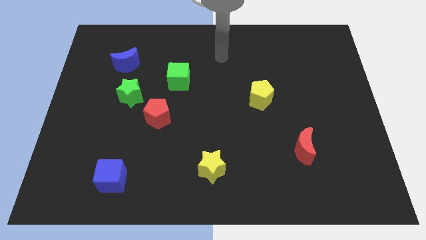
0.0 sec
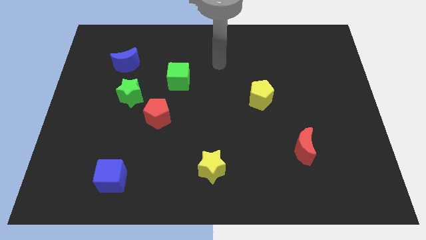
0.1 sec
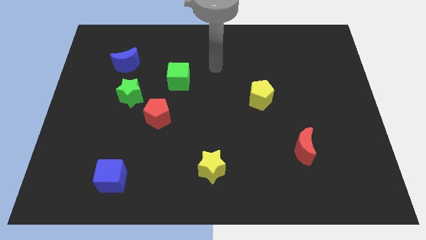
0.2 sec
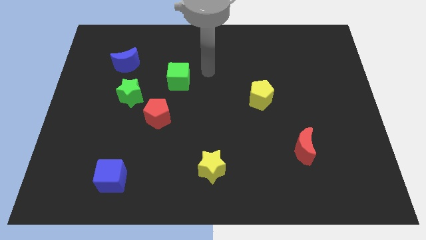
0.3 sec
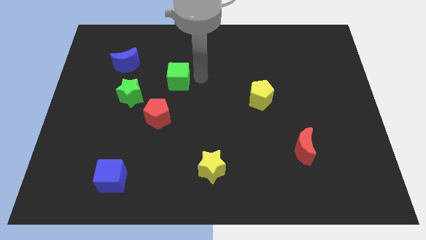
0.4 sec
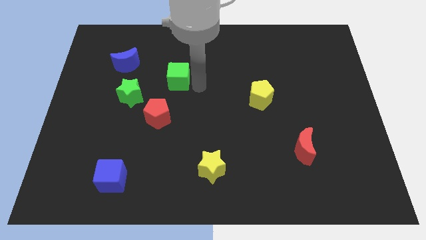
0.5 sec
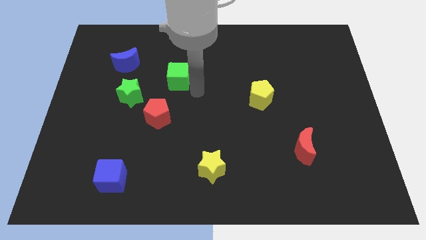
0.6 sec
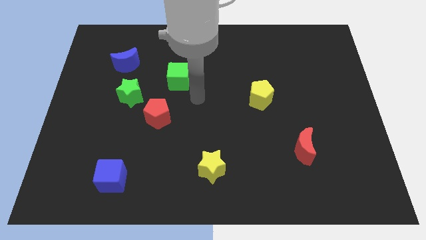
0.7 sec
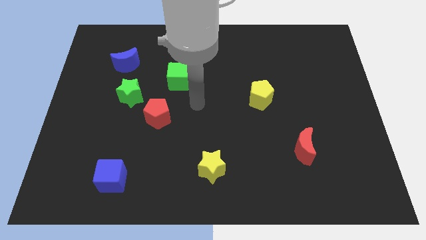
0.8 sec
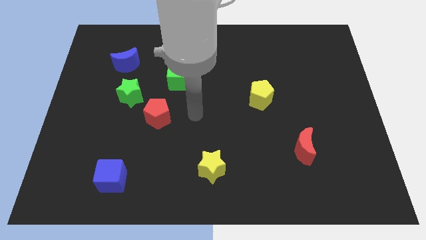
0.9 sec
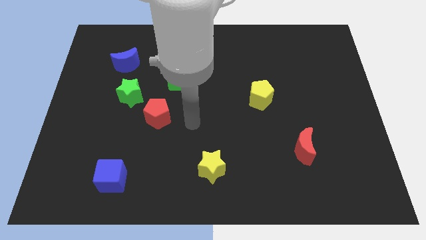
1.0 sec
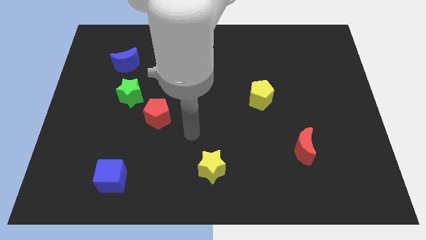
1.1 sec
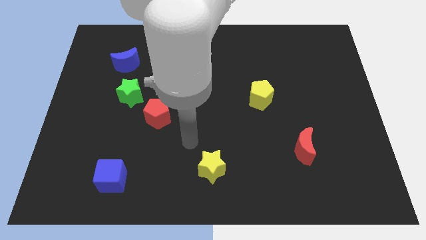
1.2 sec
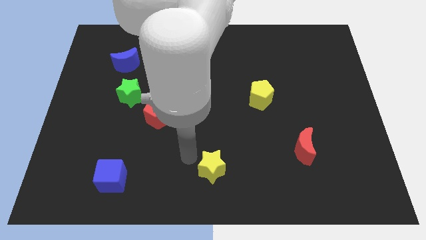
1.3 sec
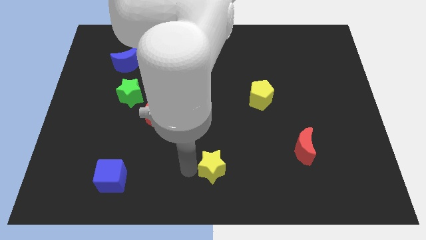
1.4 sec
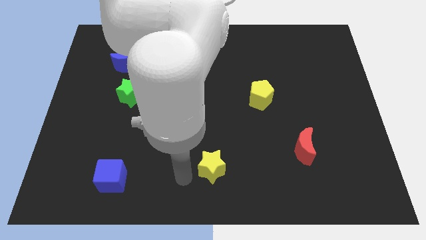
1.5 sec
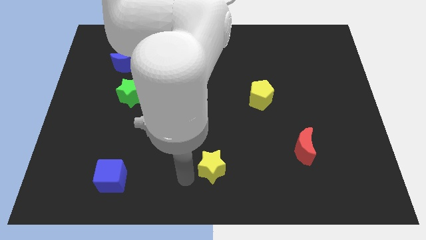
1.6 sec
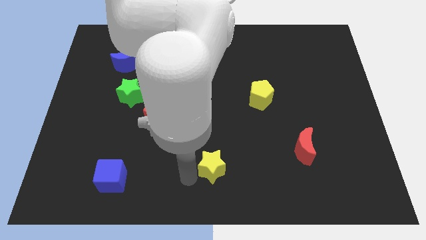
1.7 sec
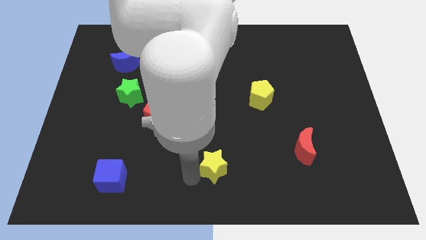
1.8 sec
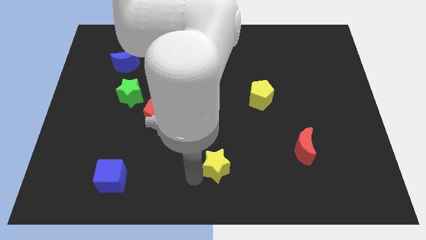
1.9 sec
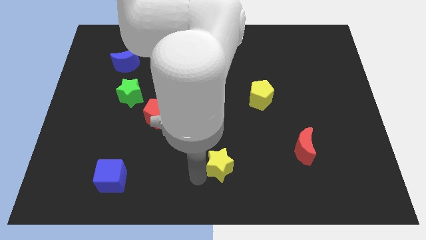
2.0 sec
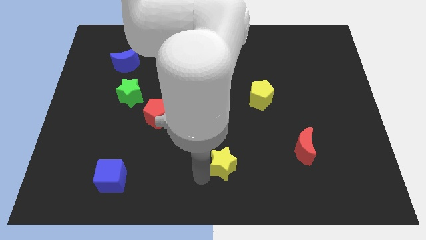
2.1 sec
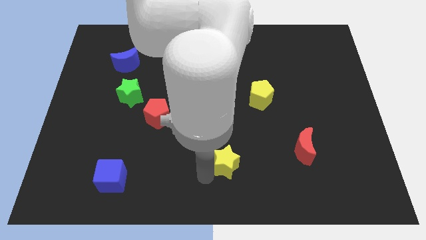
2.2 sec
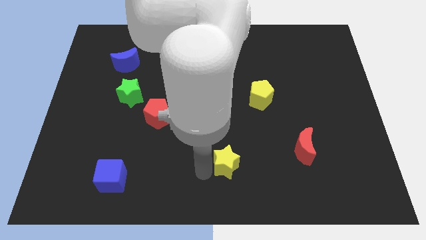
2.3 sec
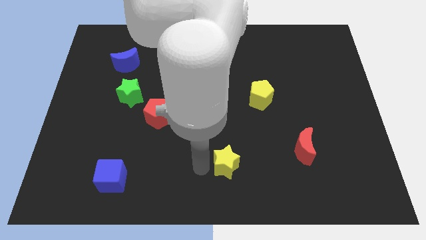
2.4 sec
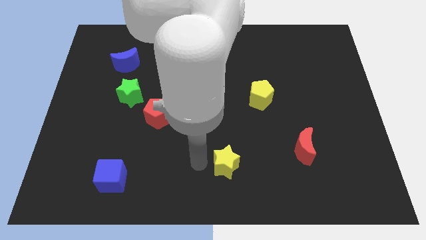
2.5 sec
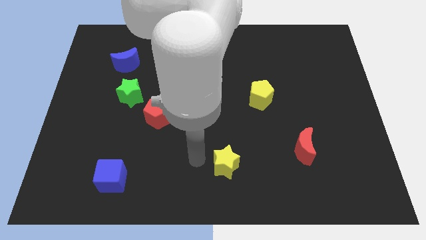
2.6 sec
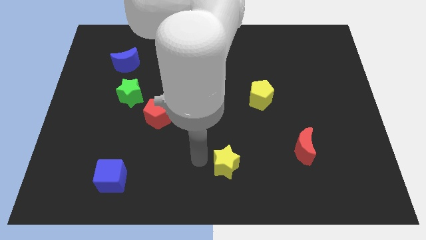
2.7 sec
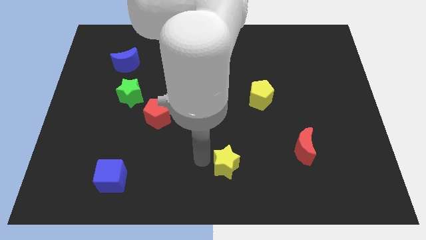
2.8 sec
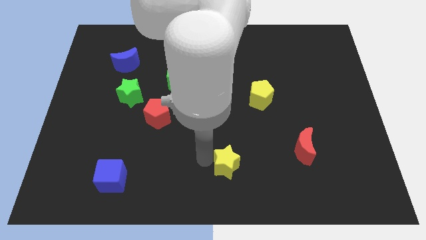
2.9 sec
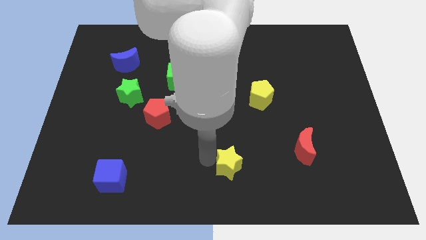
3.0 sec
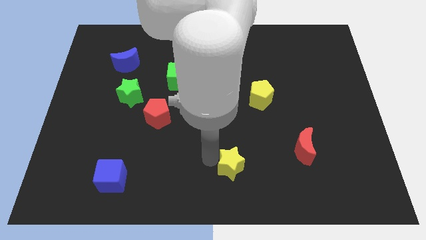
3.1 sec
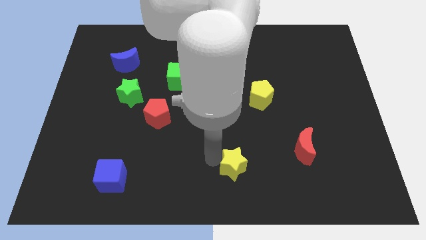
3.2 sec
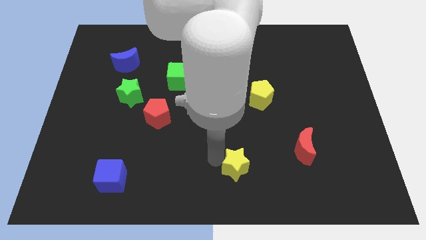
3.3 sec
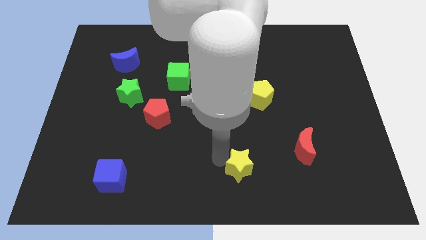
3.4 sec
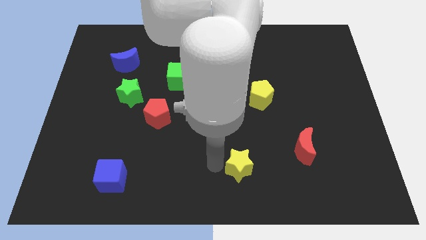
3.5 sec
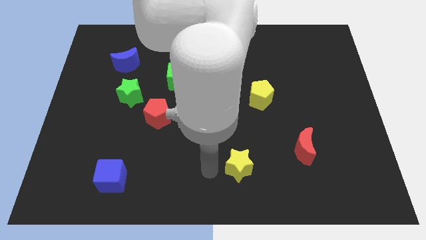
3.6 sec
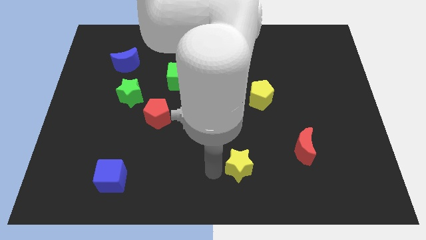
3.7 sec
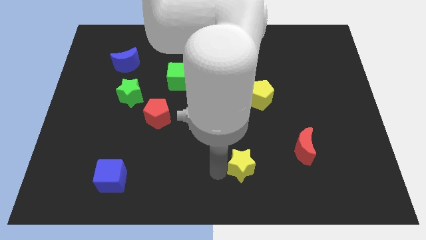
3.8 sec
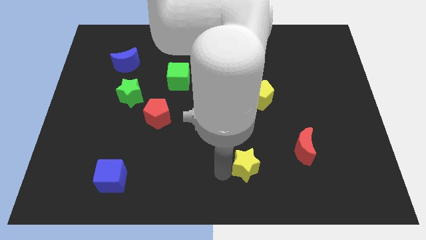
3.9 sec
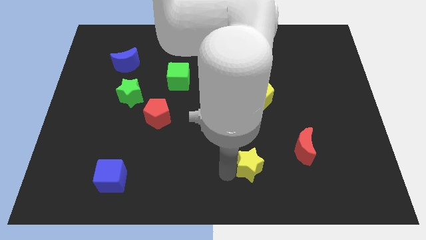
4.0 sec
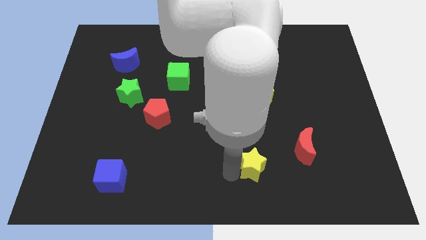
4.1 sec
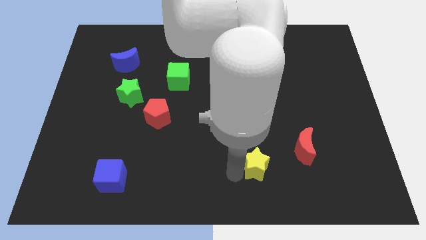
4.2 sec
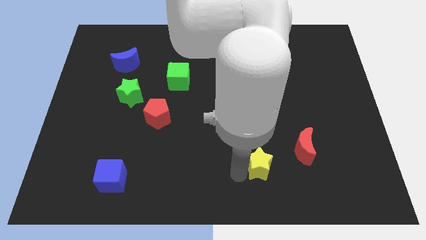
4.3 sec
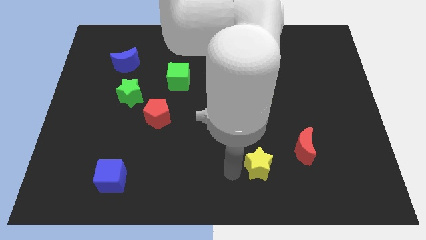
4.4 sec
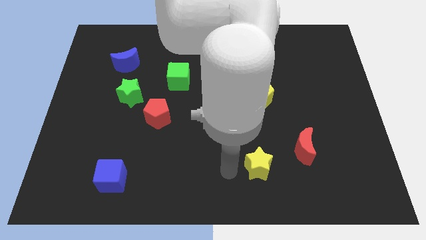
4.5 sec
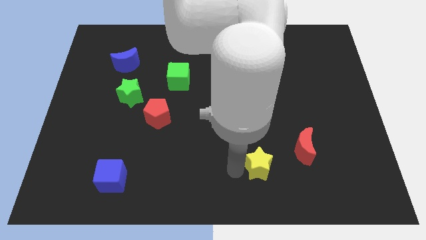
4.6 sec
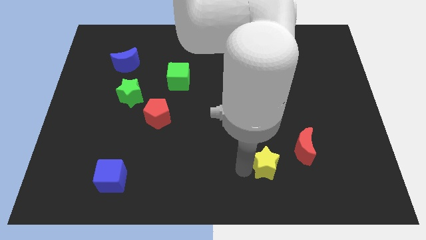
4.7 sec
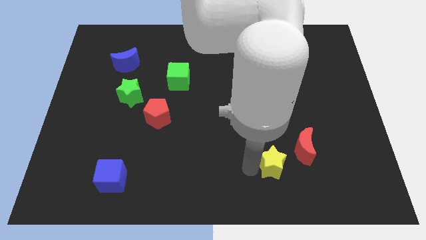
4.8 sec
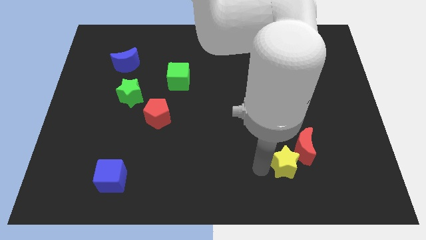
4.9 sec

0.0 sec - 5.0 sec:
push the yellow star next to the red moon

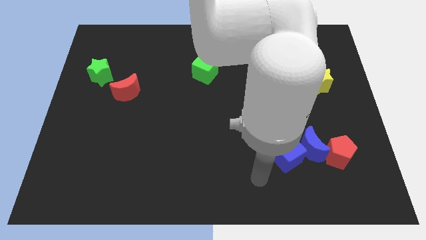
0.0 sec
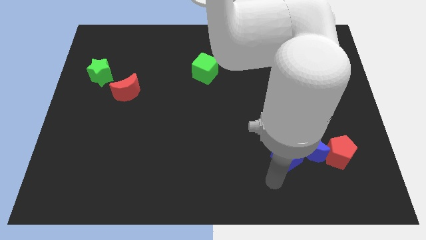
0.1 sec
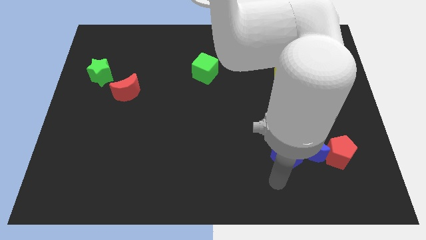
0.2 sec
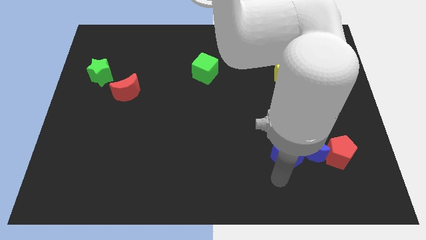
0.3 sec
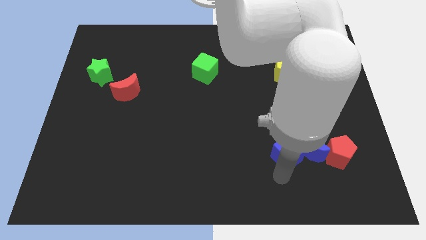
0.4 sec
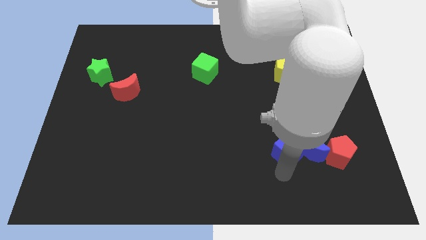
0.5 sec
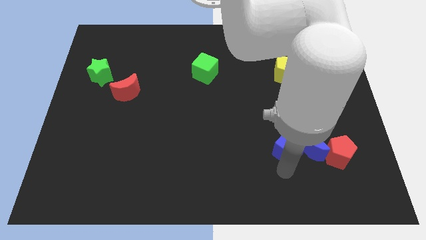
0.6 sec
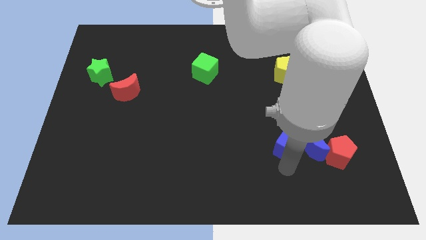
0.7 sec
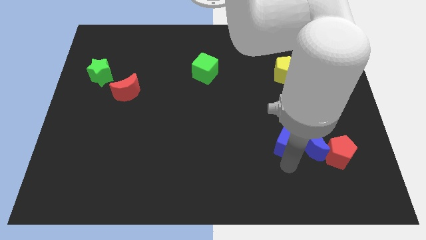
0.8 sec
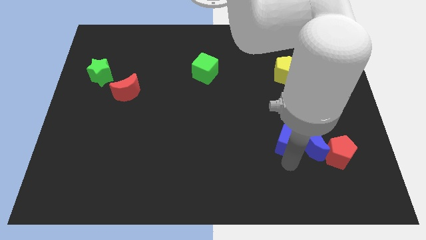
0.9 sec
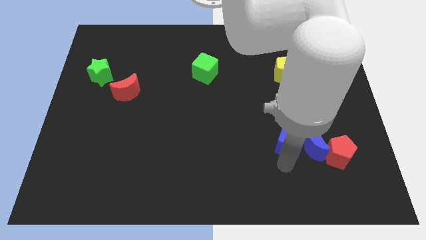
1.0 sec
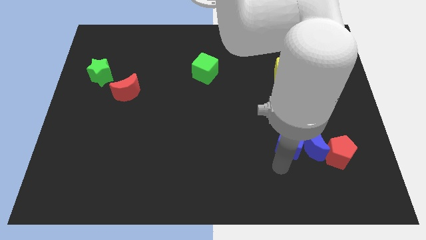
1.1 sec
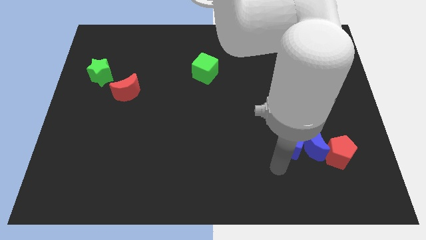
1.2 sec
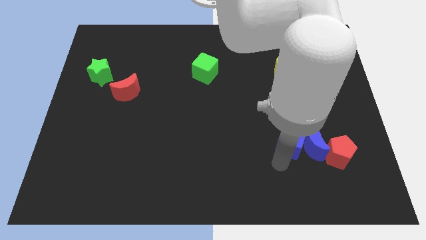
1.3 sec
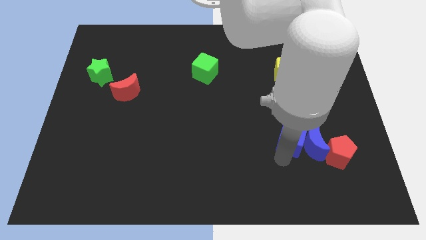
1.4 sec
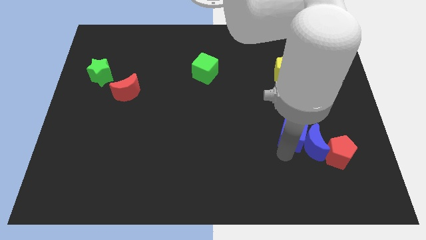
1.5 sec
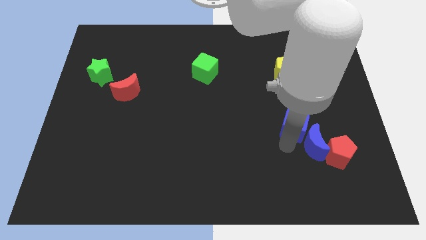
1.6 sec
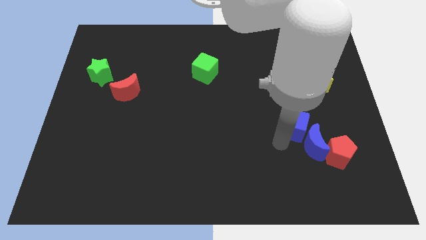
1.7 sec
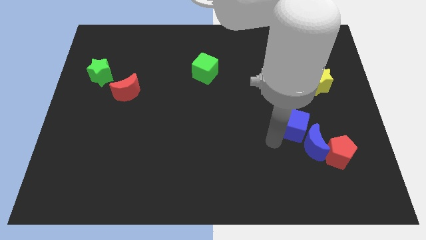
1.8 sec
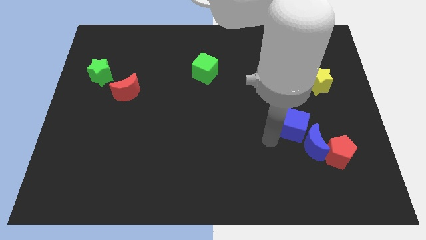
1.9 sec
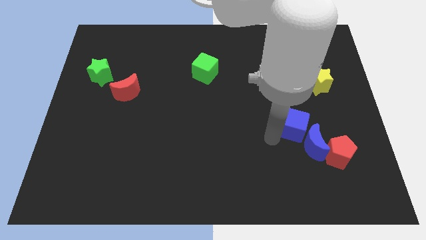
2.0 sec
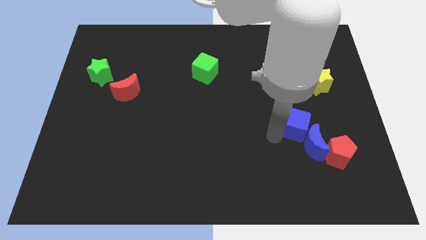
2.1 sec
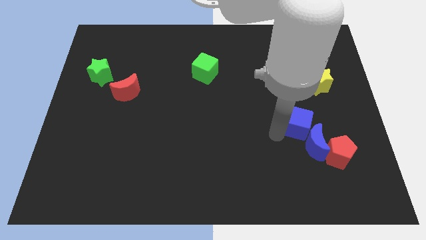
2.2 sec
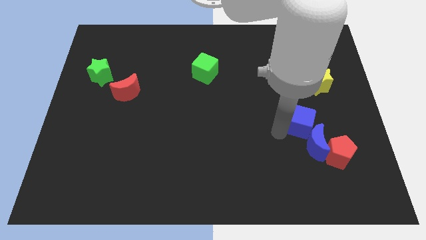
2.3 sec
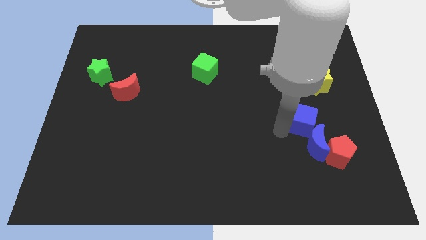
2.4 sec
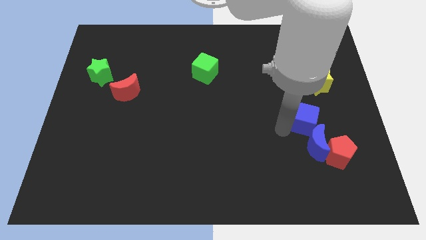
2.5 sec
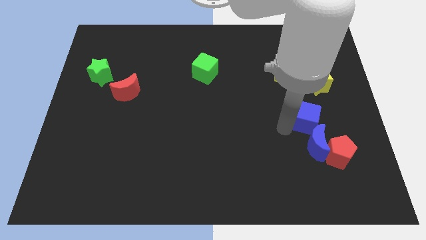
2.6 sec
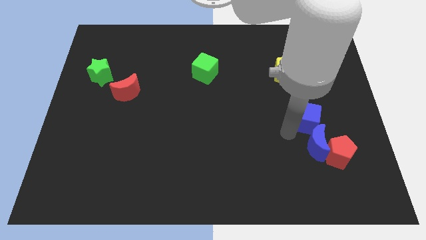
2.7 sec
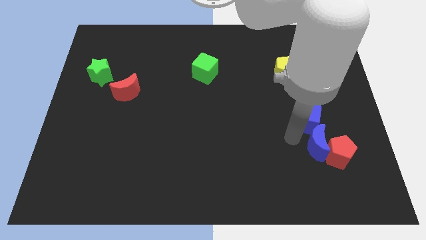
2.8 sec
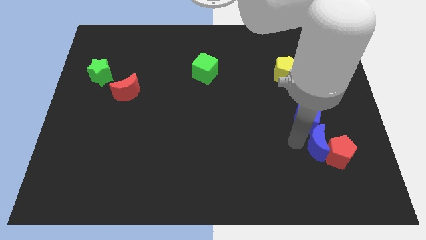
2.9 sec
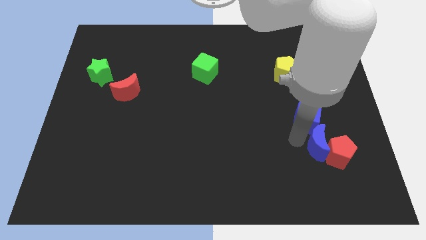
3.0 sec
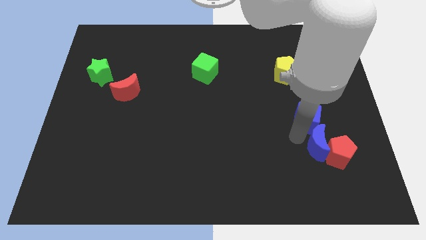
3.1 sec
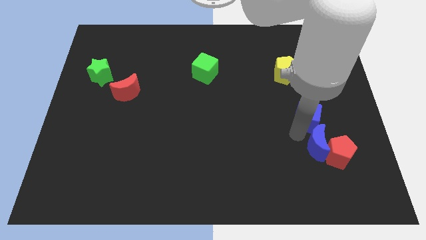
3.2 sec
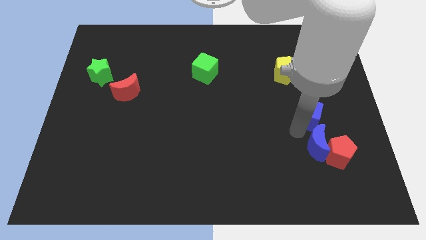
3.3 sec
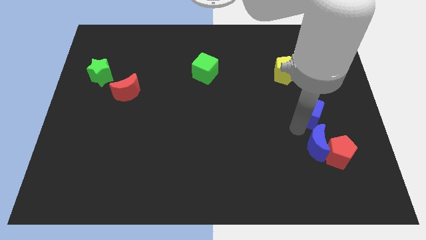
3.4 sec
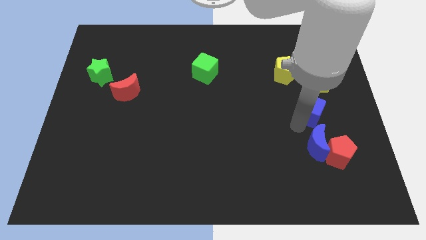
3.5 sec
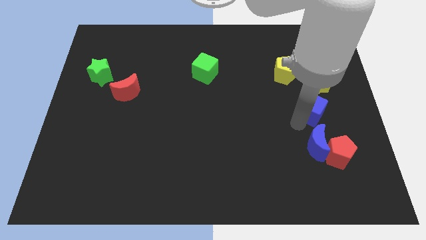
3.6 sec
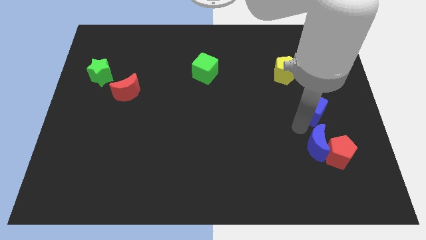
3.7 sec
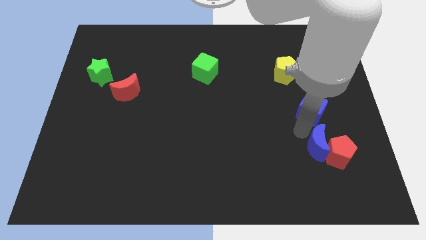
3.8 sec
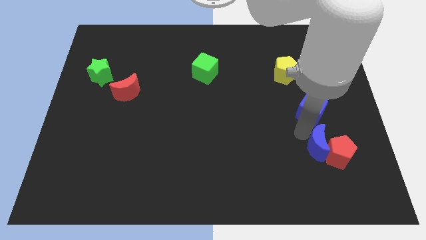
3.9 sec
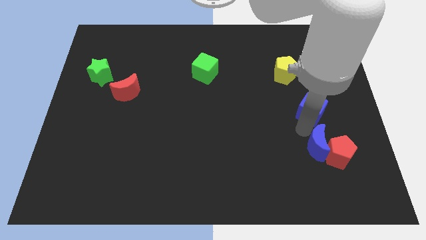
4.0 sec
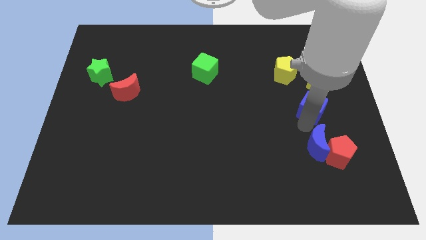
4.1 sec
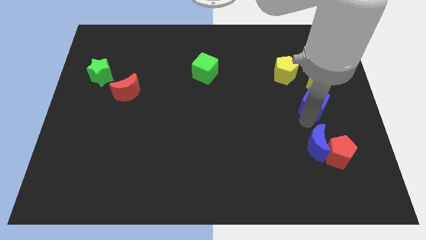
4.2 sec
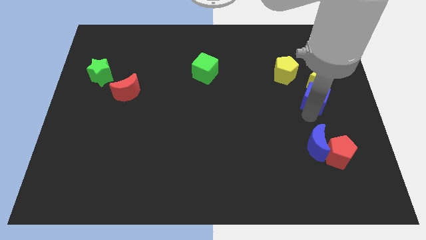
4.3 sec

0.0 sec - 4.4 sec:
move the blue cube to the yellow star
